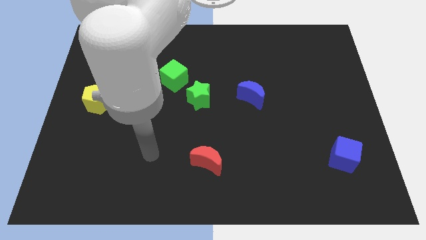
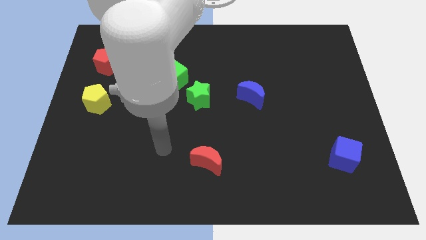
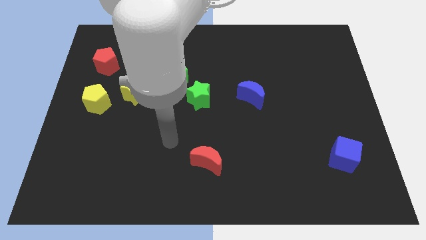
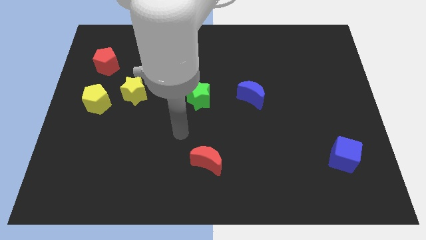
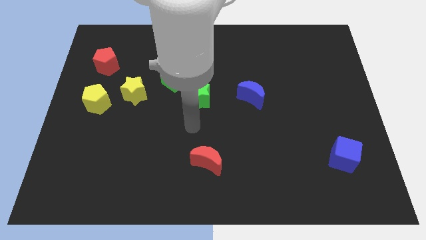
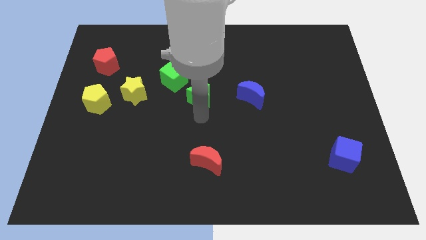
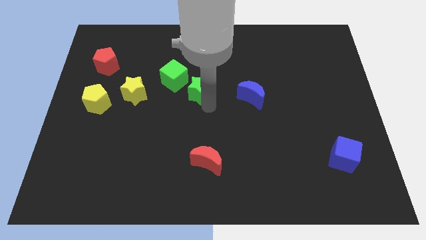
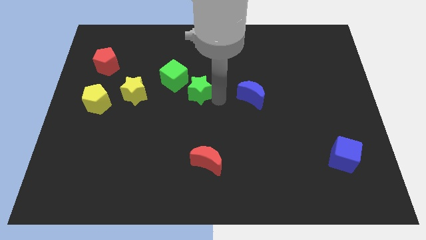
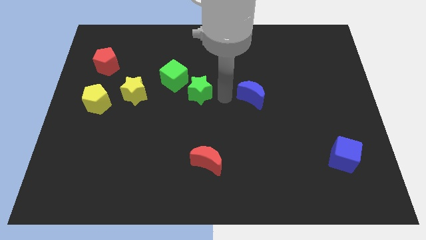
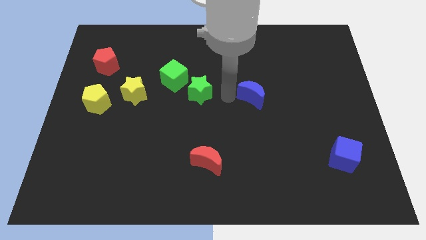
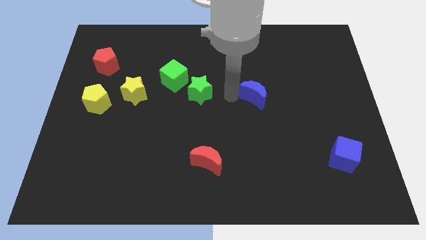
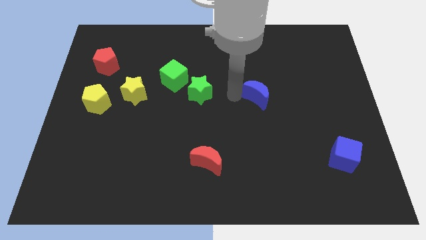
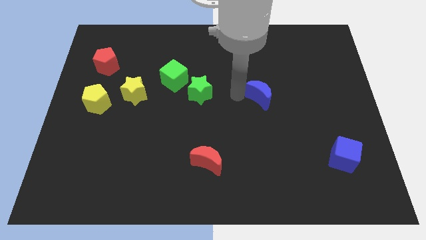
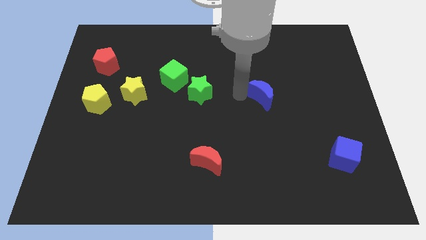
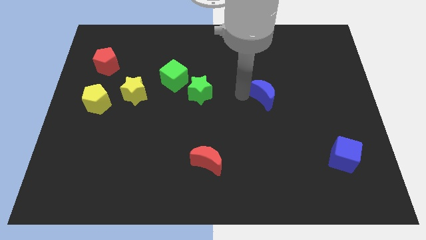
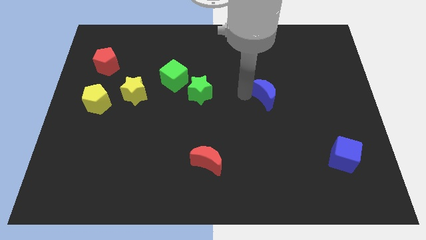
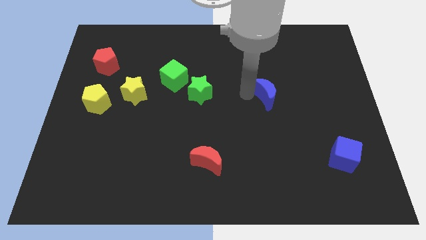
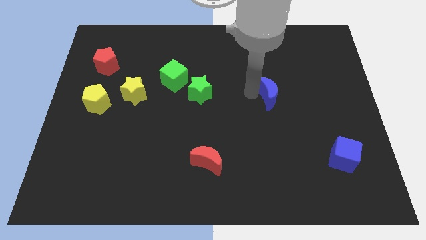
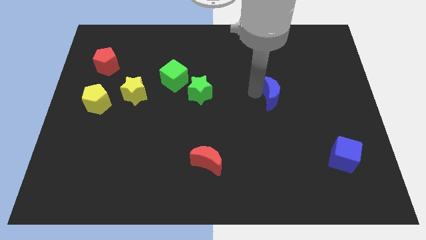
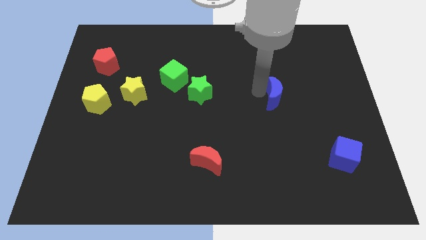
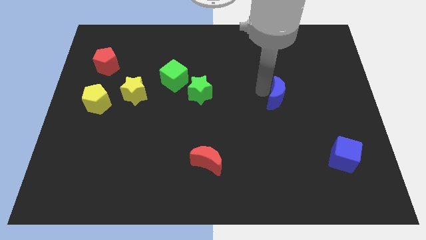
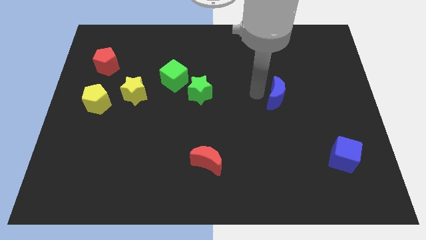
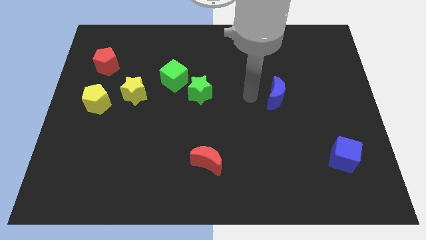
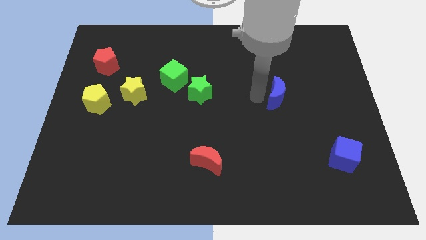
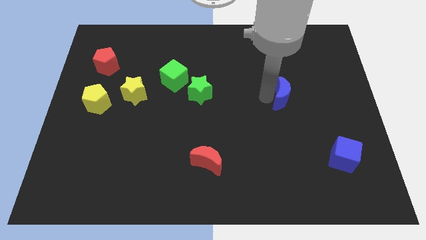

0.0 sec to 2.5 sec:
slightly slide the blue moon right

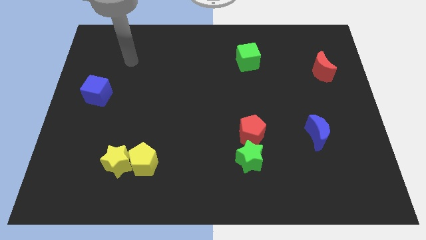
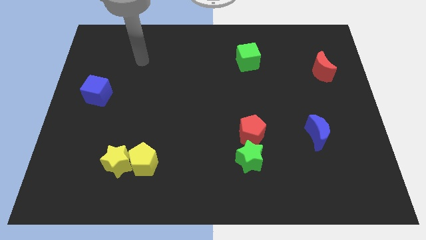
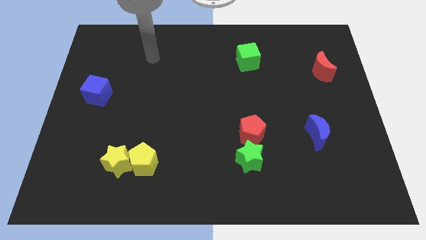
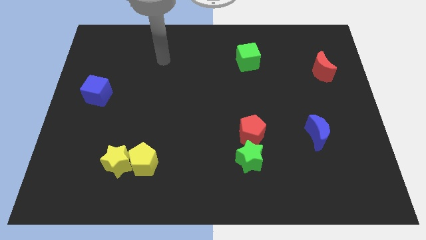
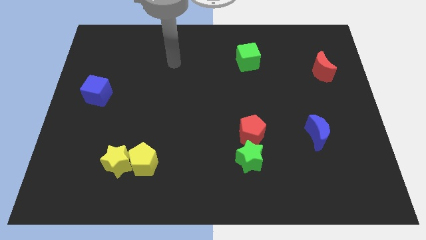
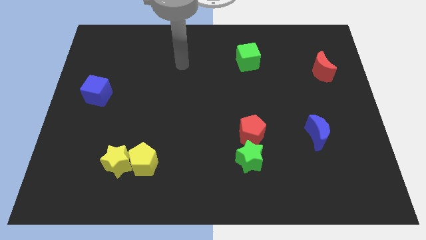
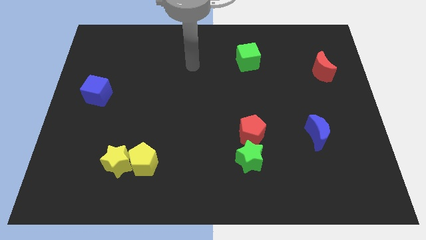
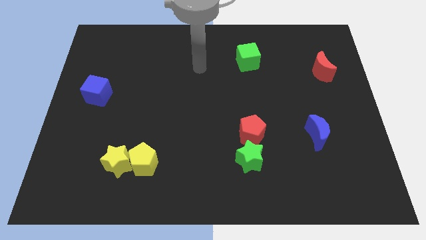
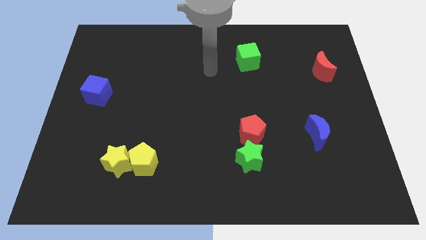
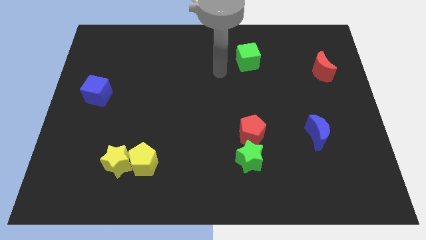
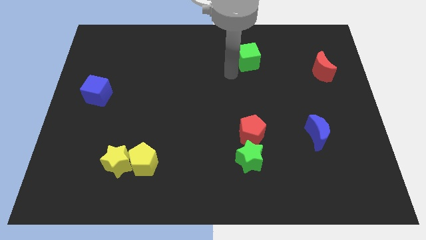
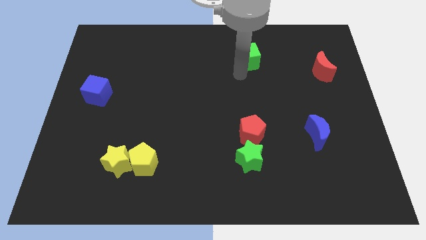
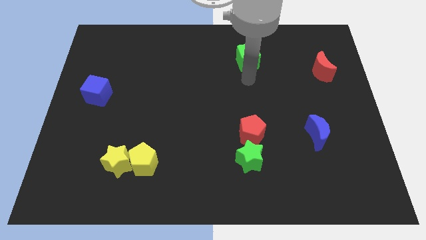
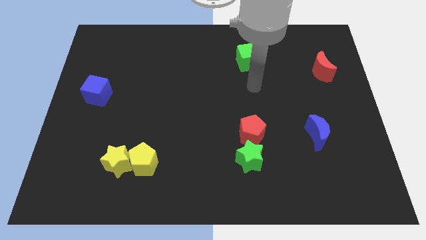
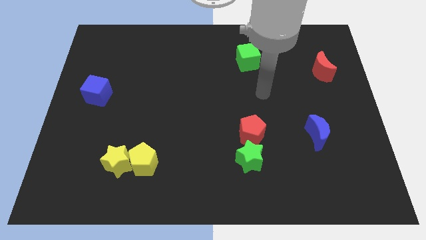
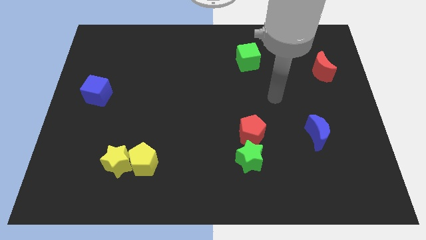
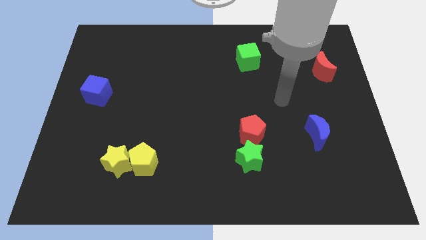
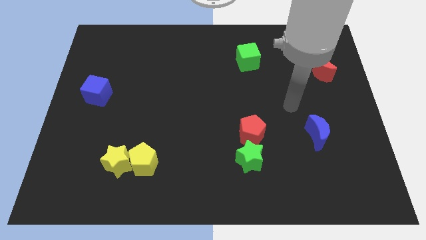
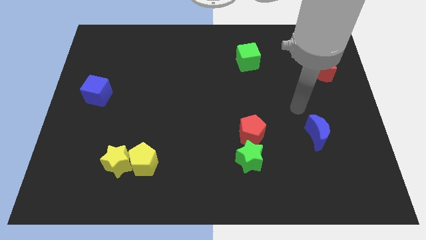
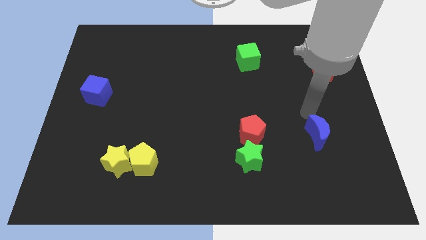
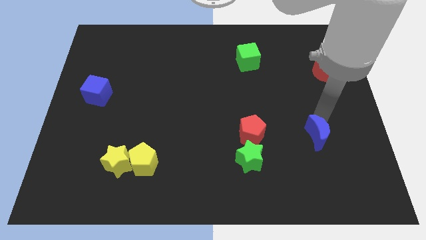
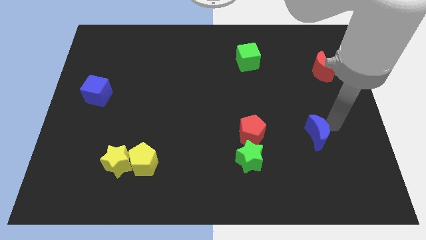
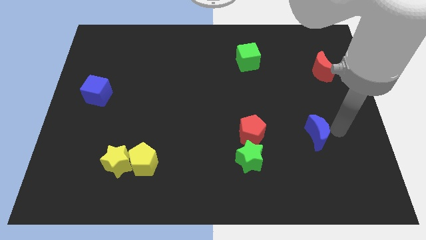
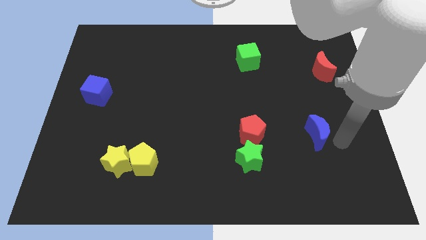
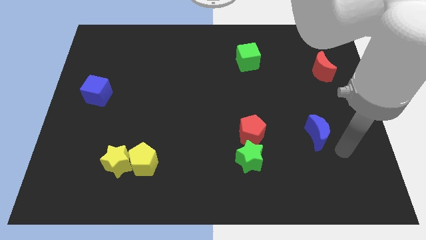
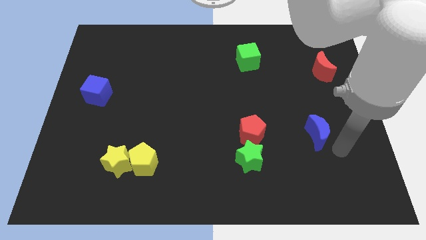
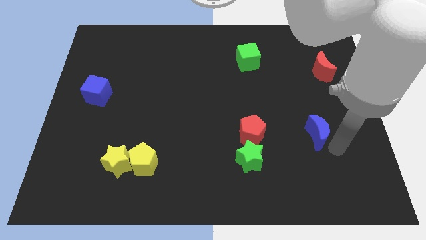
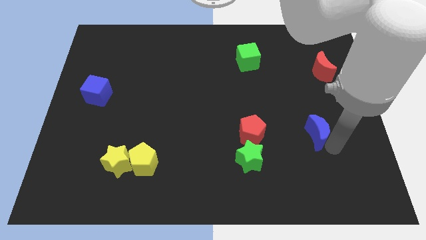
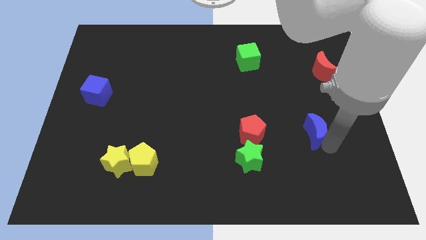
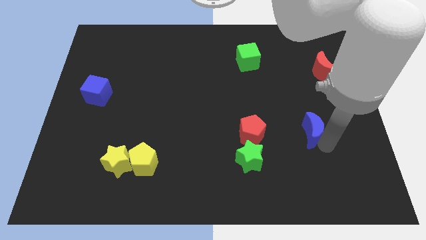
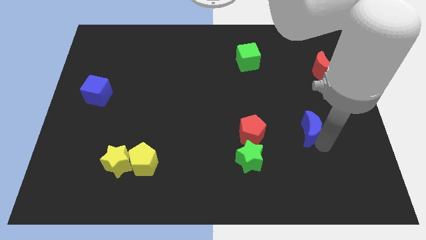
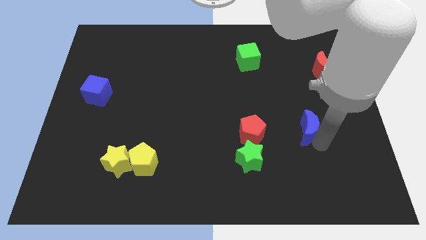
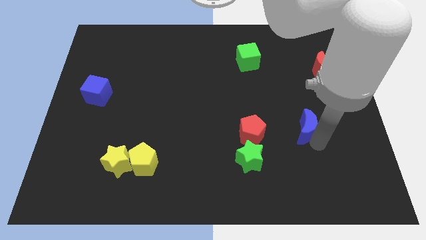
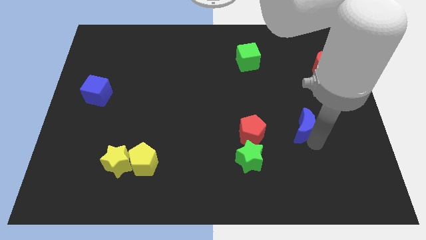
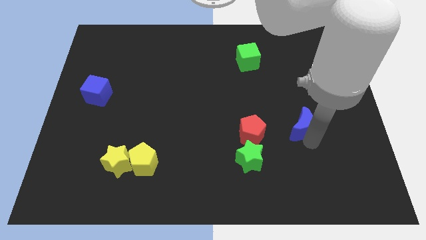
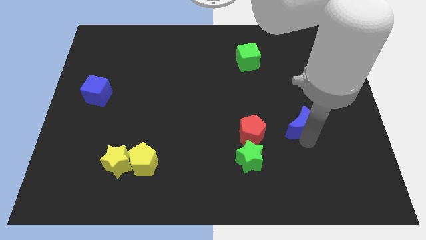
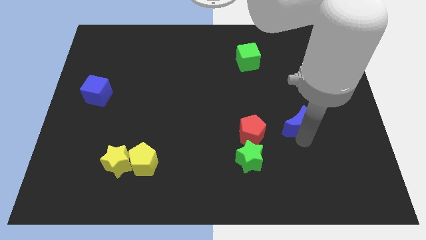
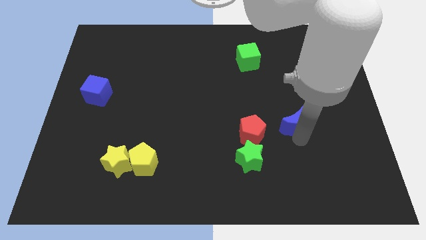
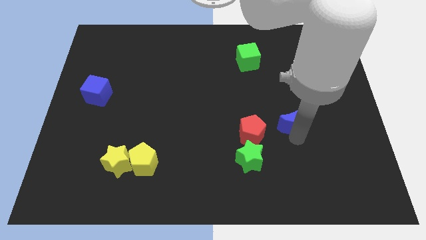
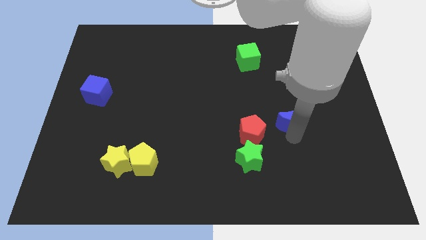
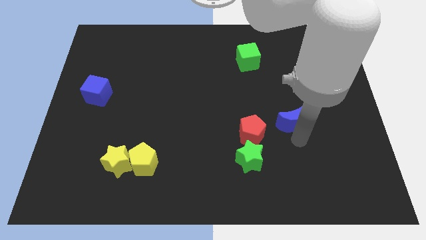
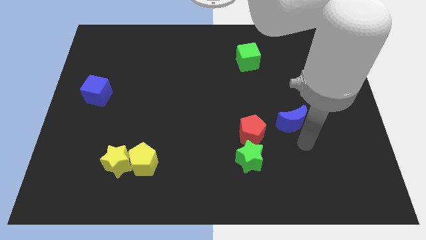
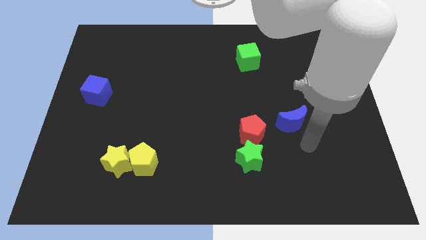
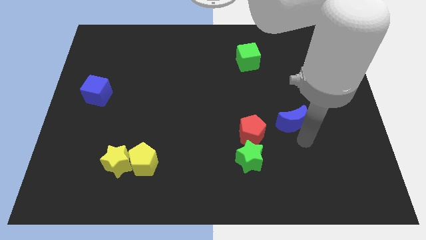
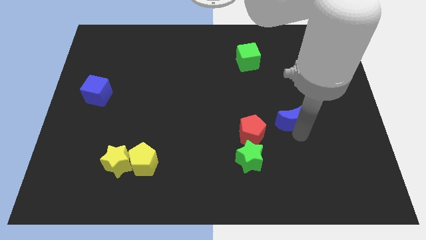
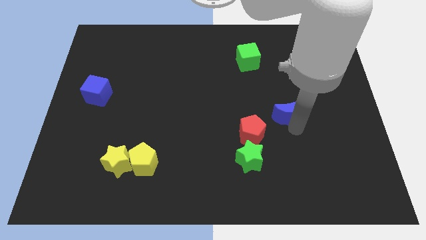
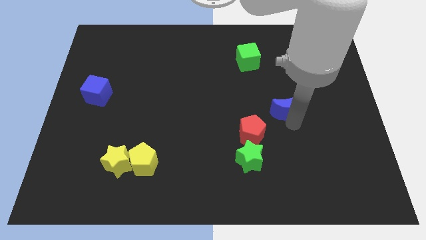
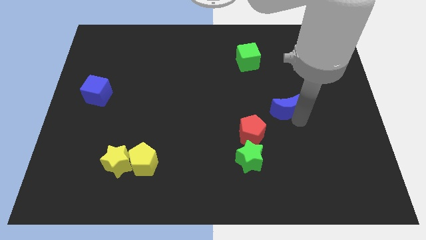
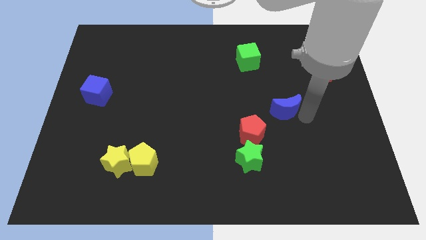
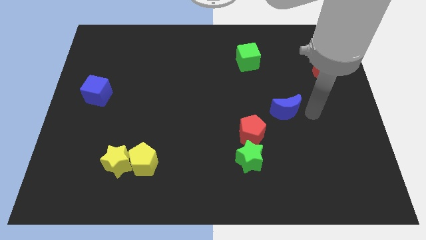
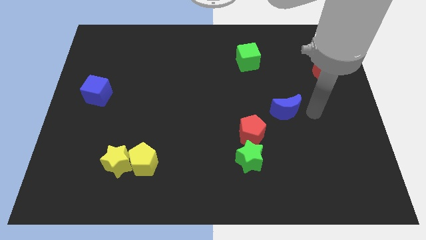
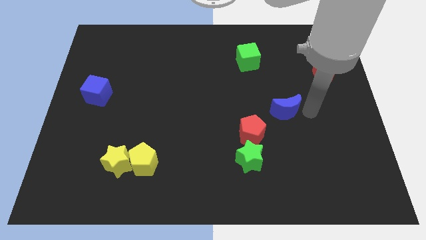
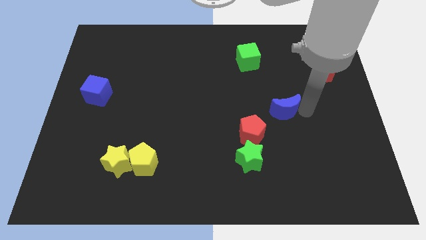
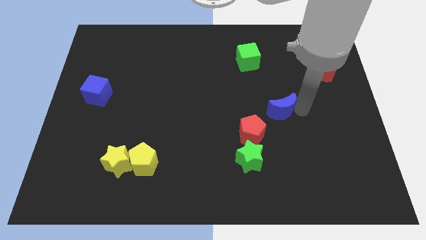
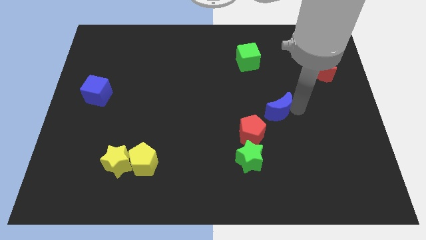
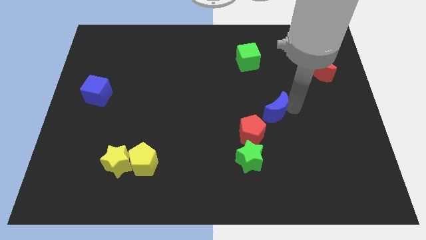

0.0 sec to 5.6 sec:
slightly slide the blue moon to the left
